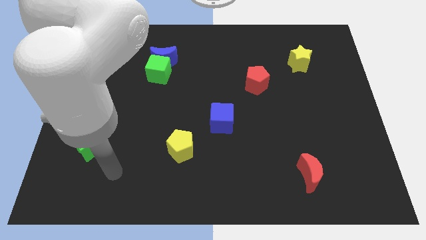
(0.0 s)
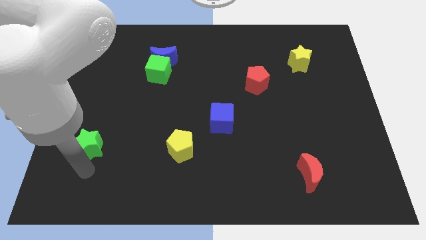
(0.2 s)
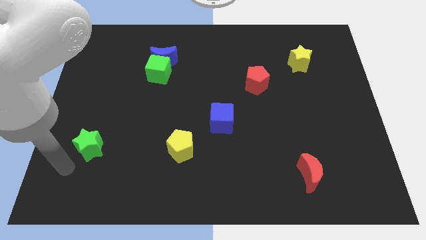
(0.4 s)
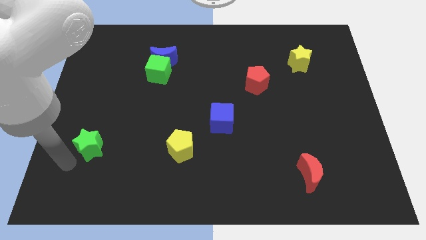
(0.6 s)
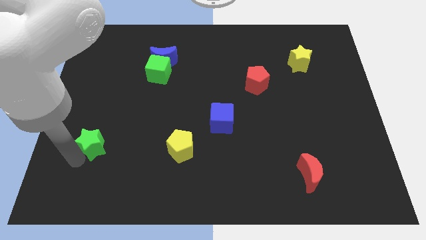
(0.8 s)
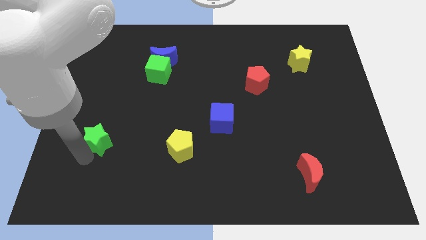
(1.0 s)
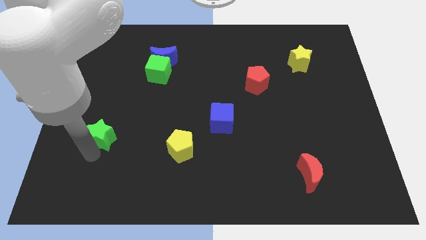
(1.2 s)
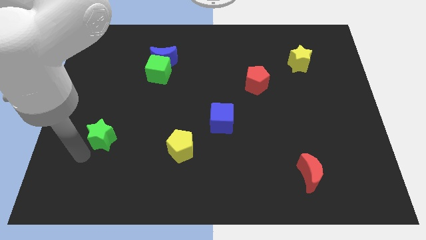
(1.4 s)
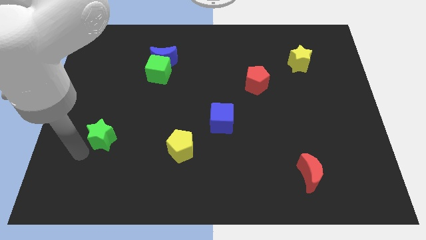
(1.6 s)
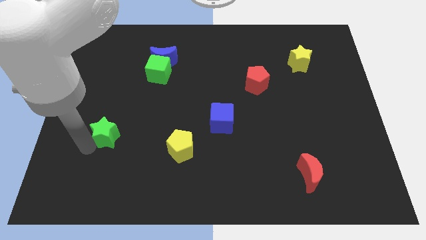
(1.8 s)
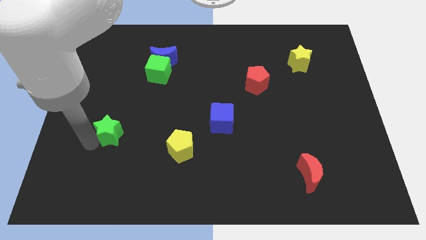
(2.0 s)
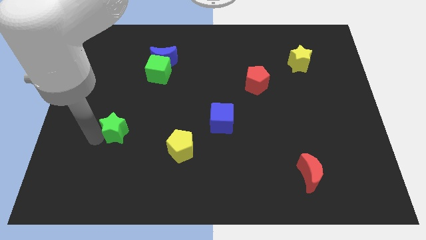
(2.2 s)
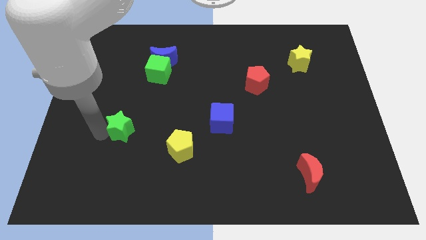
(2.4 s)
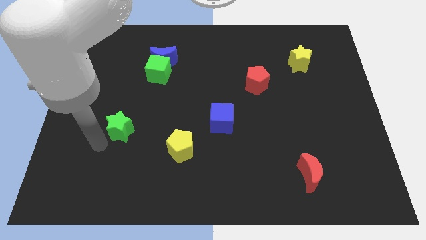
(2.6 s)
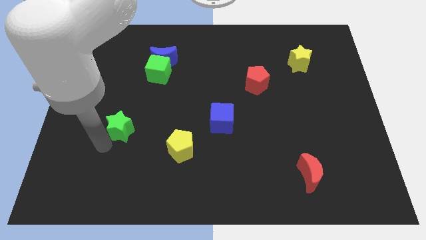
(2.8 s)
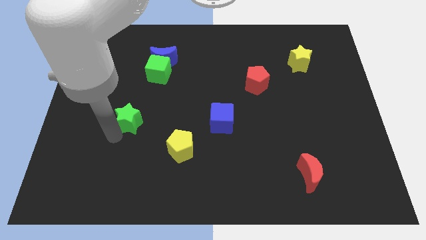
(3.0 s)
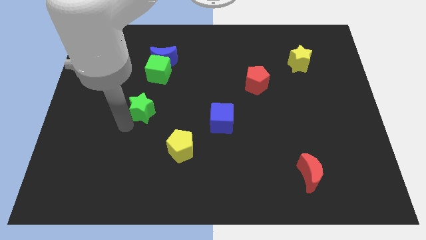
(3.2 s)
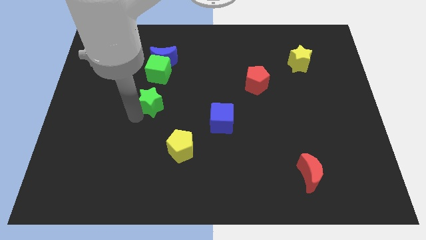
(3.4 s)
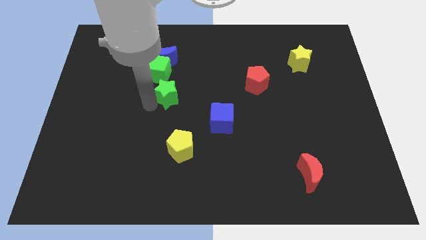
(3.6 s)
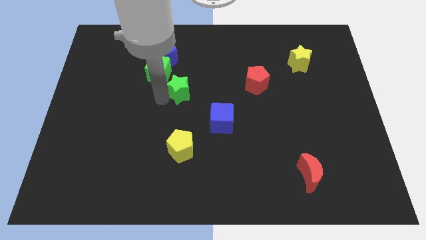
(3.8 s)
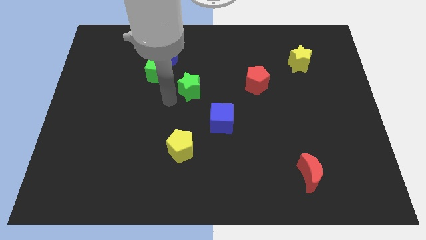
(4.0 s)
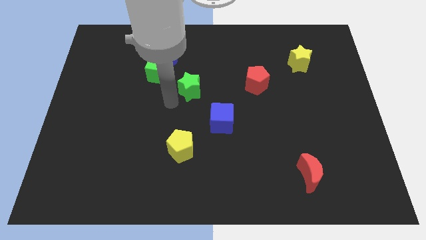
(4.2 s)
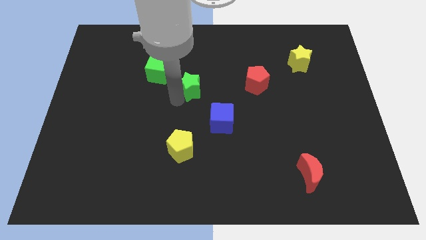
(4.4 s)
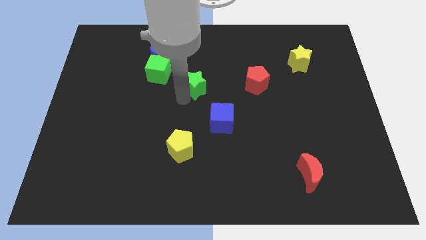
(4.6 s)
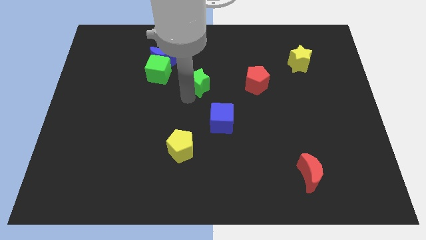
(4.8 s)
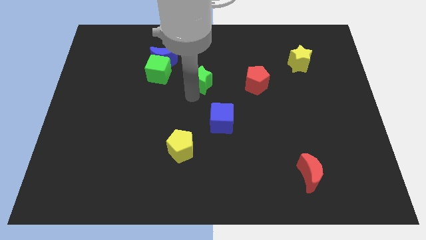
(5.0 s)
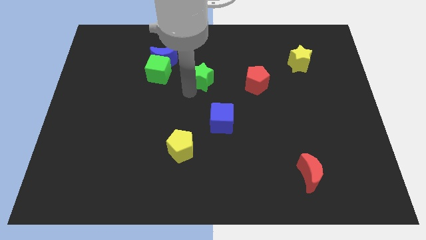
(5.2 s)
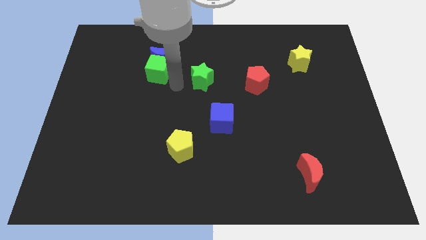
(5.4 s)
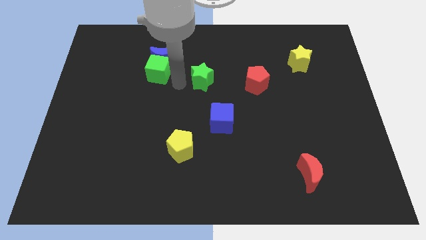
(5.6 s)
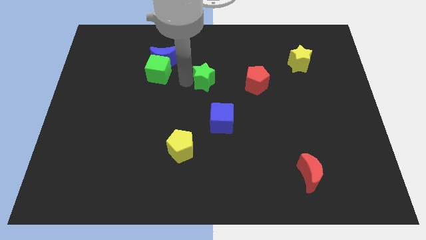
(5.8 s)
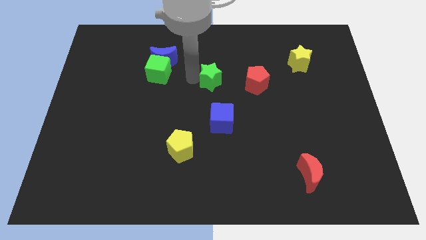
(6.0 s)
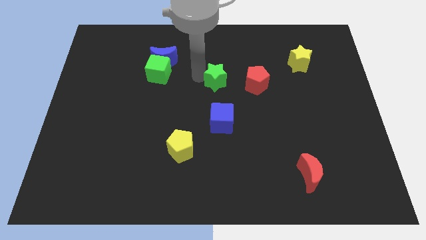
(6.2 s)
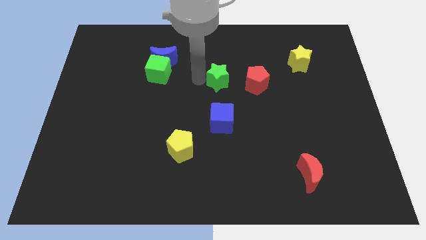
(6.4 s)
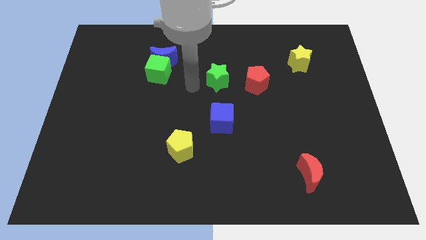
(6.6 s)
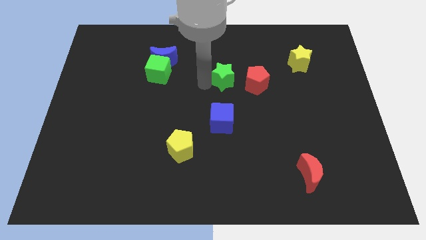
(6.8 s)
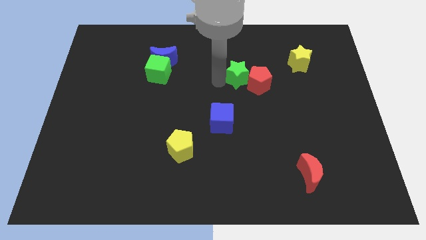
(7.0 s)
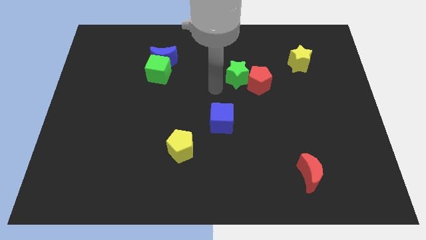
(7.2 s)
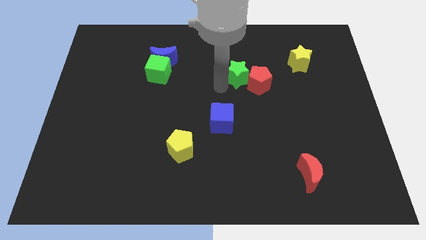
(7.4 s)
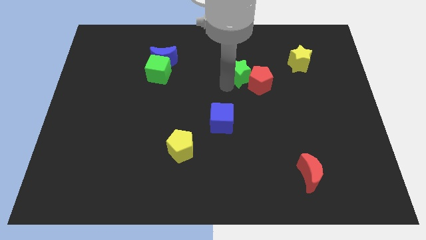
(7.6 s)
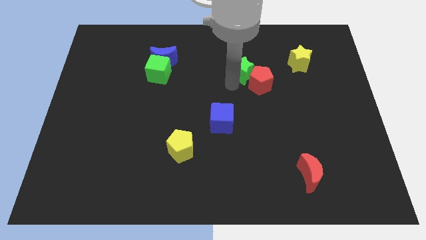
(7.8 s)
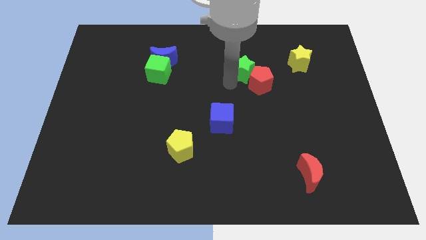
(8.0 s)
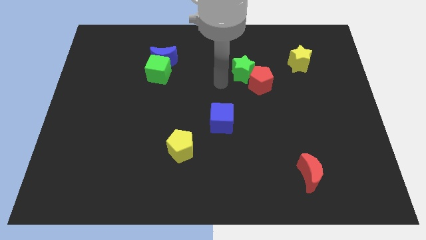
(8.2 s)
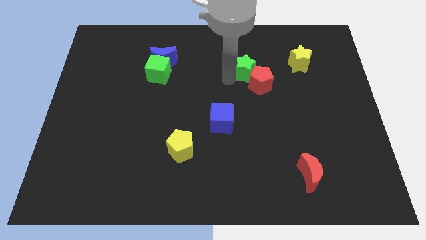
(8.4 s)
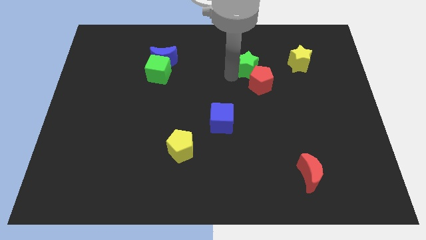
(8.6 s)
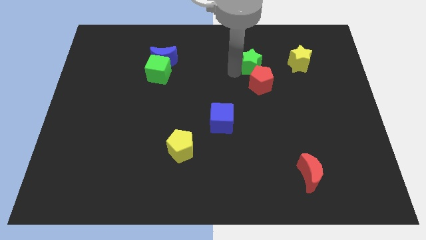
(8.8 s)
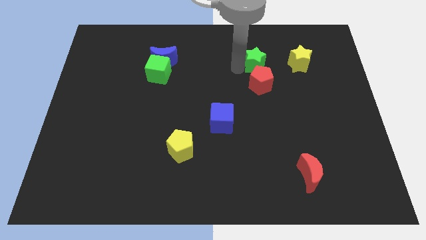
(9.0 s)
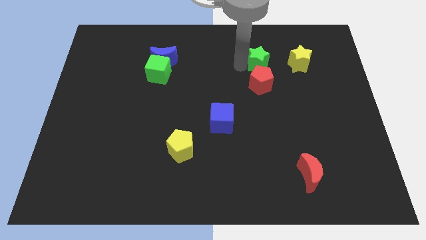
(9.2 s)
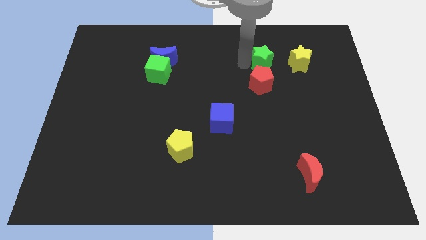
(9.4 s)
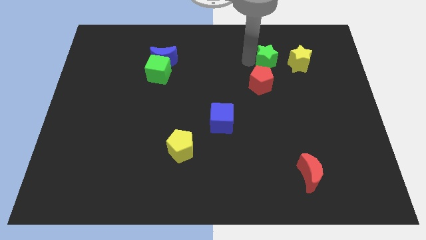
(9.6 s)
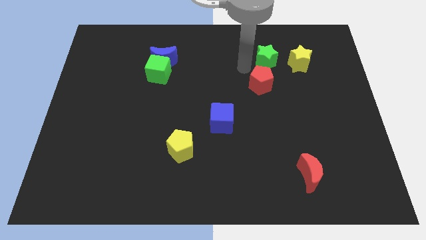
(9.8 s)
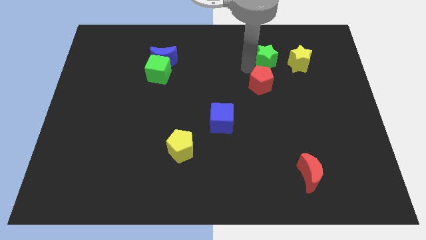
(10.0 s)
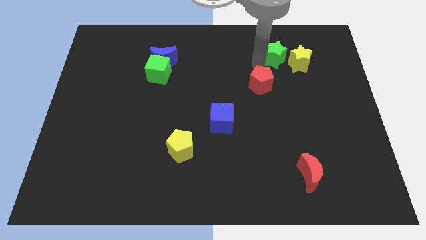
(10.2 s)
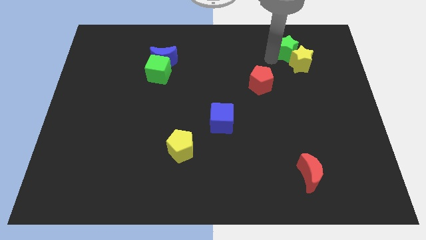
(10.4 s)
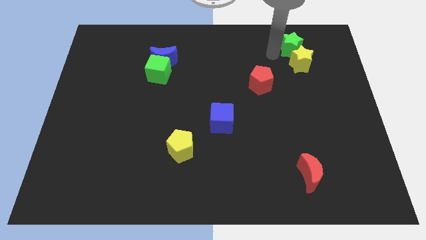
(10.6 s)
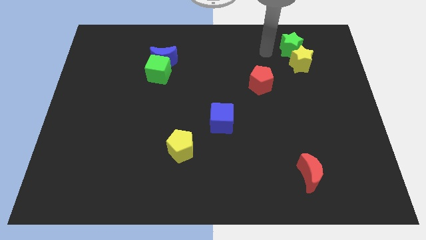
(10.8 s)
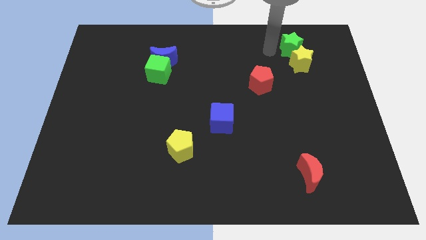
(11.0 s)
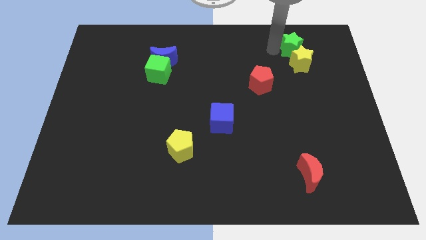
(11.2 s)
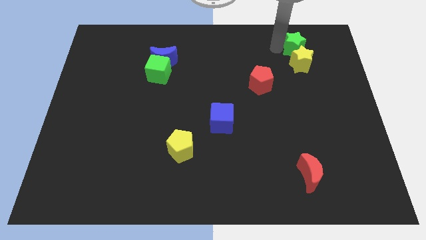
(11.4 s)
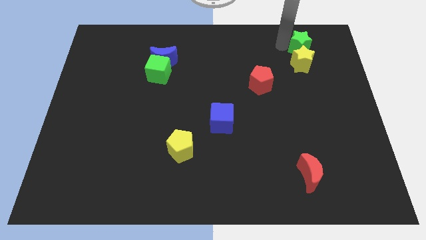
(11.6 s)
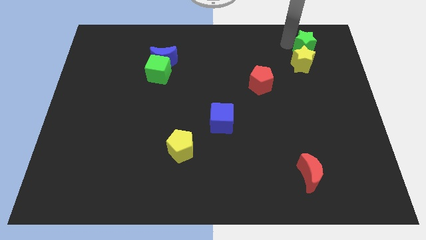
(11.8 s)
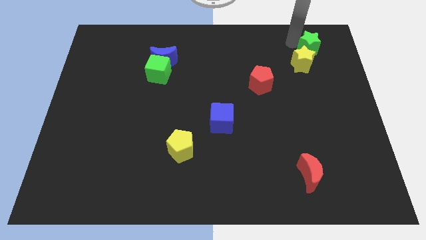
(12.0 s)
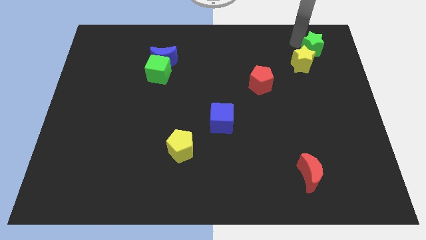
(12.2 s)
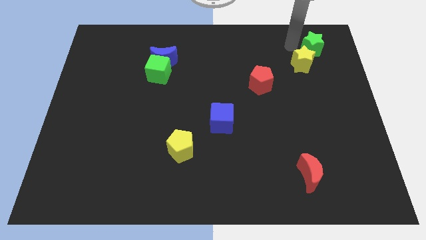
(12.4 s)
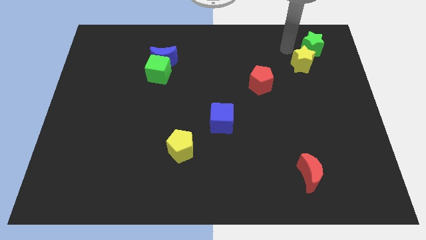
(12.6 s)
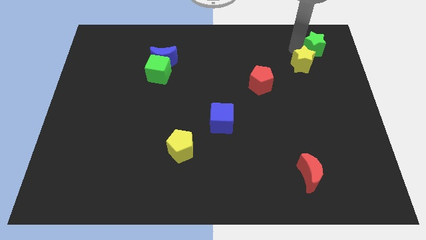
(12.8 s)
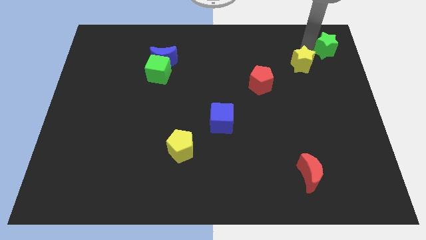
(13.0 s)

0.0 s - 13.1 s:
slide the green star to the top right corner
